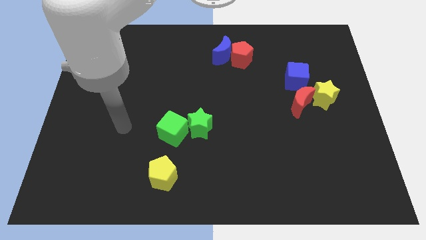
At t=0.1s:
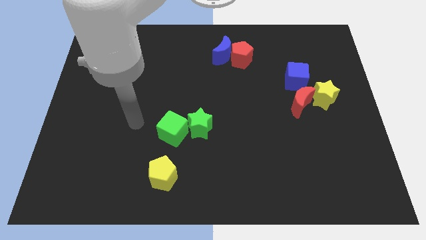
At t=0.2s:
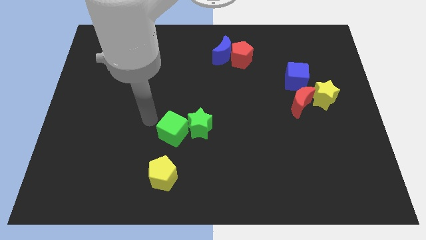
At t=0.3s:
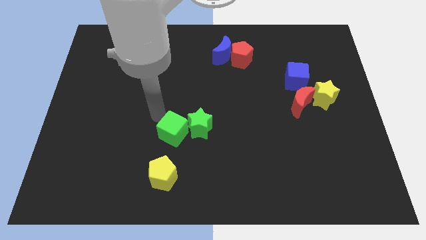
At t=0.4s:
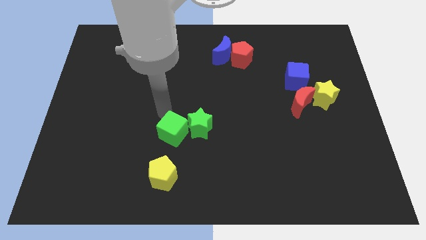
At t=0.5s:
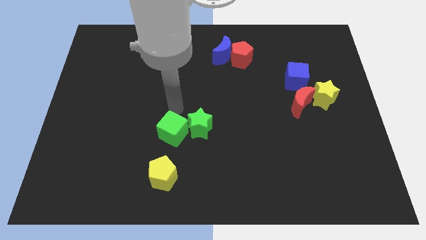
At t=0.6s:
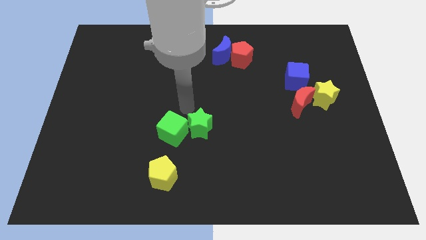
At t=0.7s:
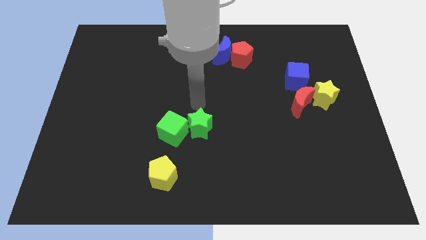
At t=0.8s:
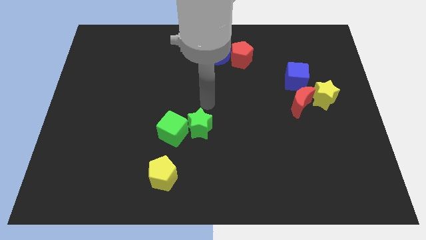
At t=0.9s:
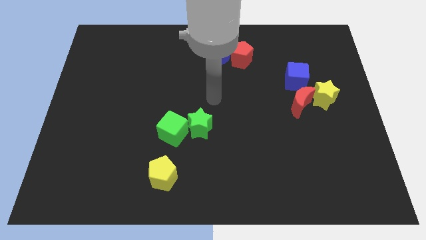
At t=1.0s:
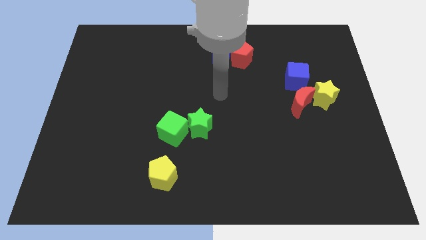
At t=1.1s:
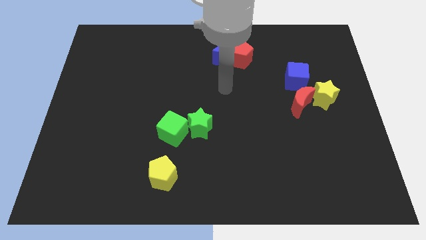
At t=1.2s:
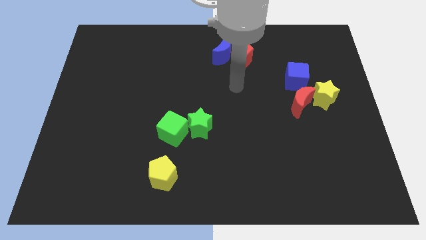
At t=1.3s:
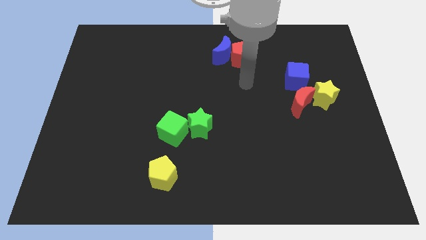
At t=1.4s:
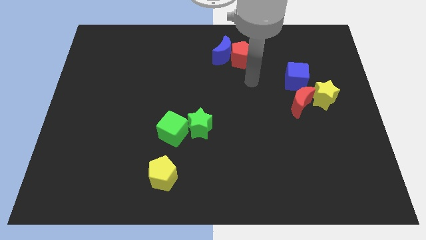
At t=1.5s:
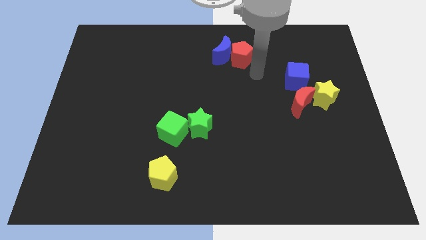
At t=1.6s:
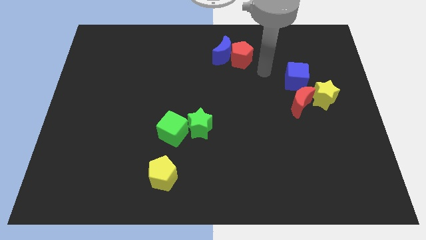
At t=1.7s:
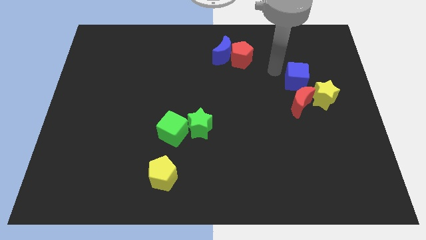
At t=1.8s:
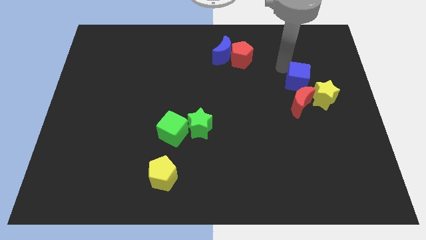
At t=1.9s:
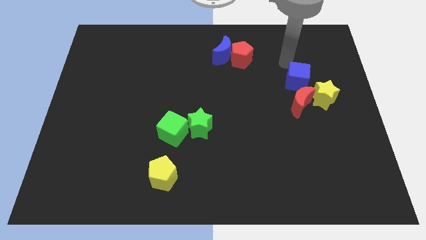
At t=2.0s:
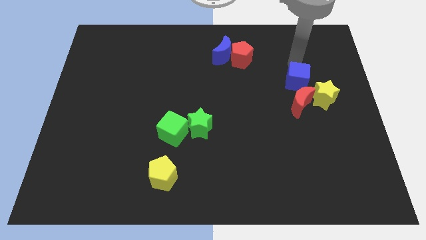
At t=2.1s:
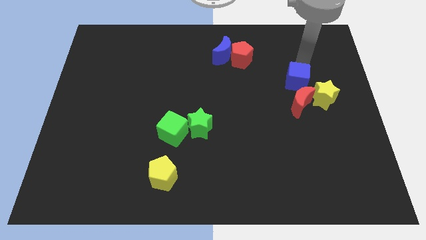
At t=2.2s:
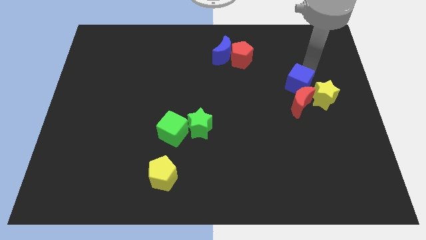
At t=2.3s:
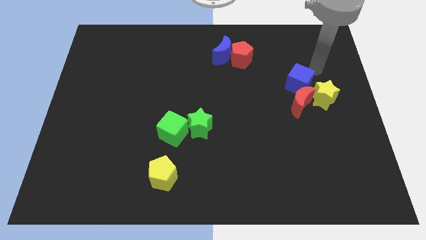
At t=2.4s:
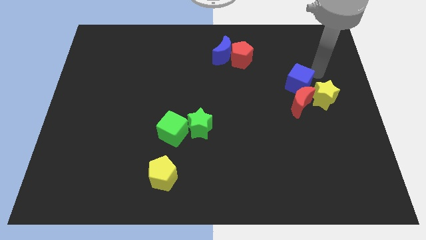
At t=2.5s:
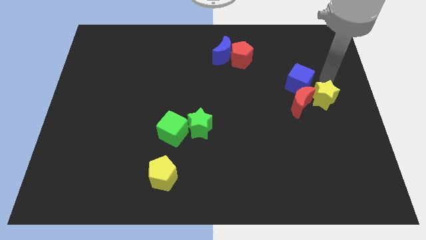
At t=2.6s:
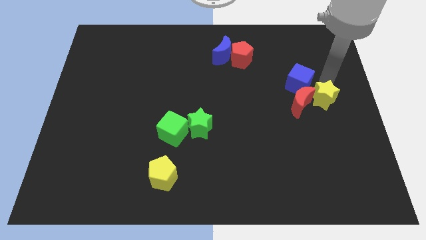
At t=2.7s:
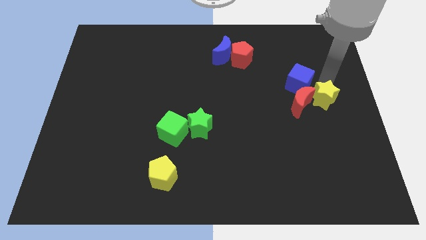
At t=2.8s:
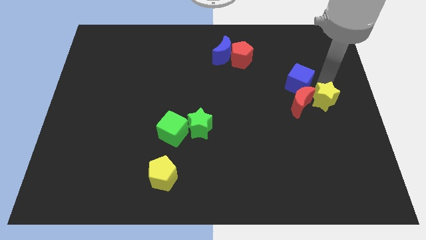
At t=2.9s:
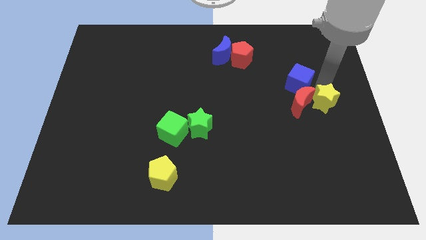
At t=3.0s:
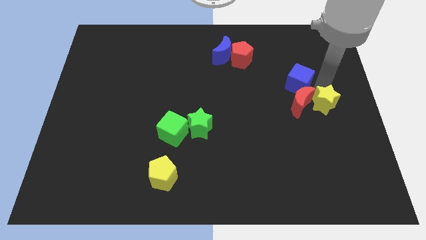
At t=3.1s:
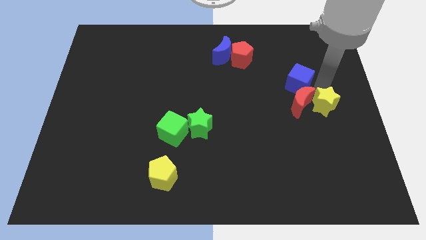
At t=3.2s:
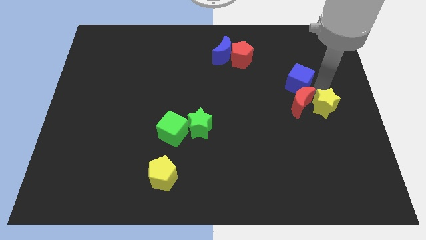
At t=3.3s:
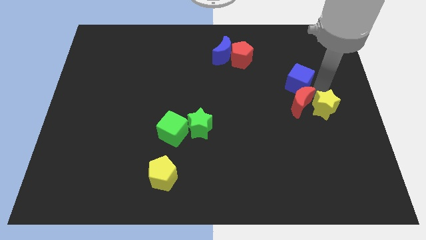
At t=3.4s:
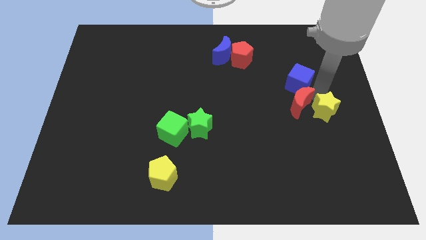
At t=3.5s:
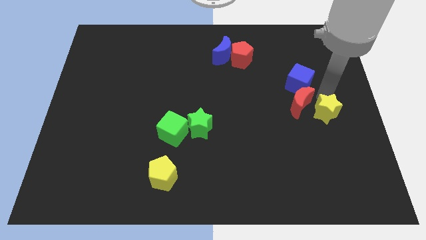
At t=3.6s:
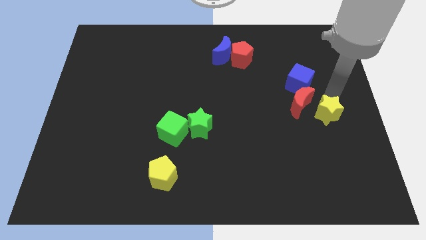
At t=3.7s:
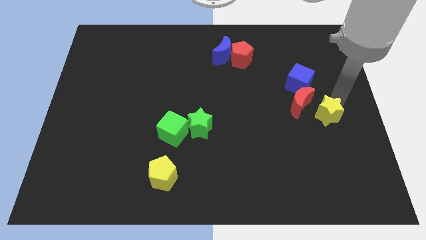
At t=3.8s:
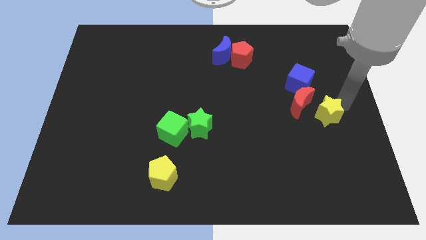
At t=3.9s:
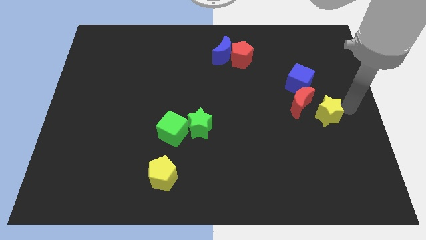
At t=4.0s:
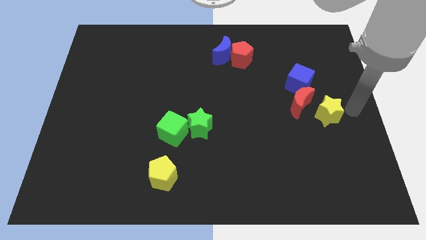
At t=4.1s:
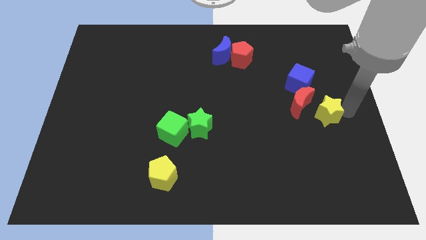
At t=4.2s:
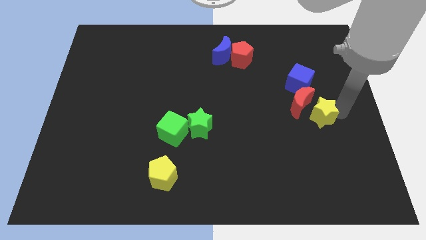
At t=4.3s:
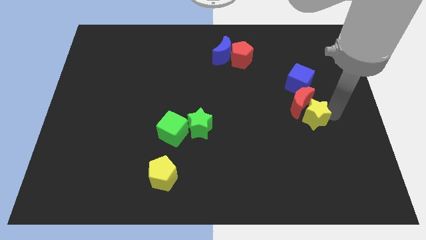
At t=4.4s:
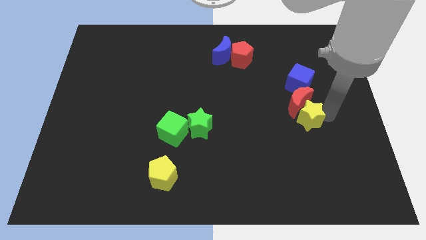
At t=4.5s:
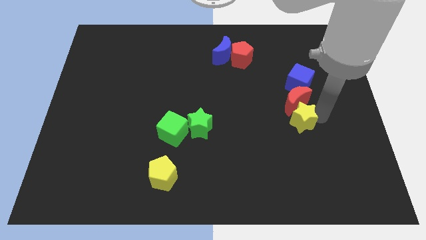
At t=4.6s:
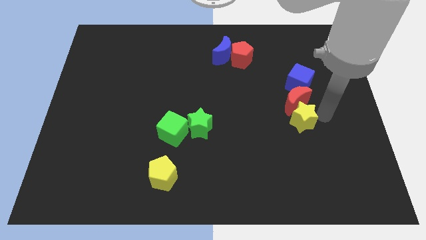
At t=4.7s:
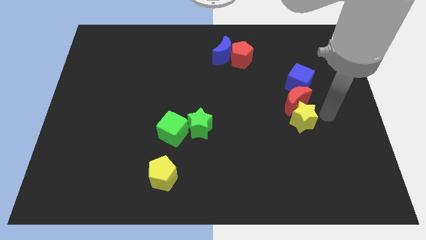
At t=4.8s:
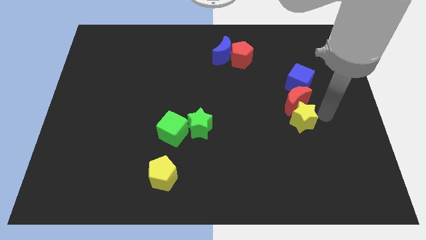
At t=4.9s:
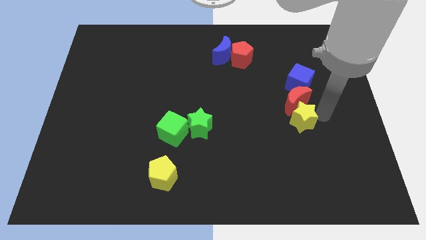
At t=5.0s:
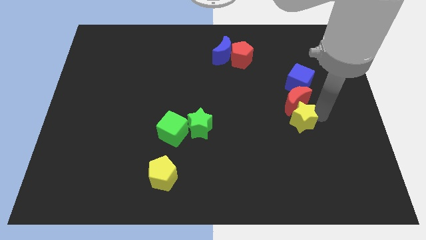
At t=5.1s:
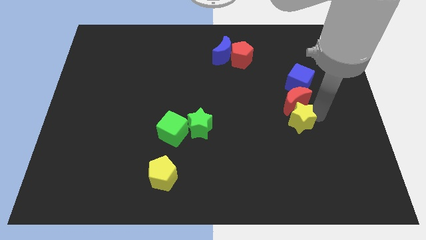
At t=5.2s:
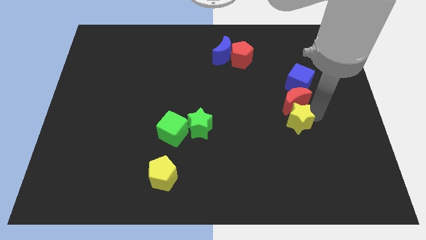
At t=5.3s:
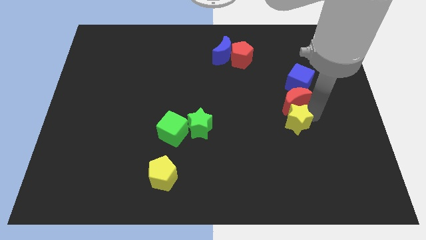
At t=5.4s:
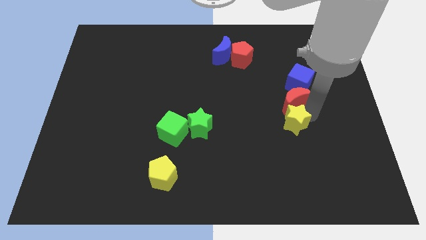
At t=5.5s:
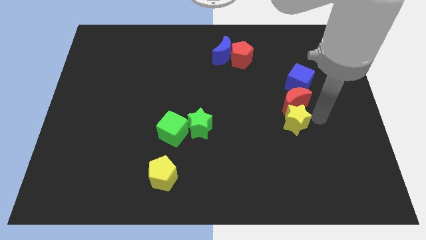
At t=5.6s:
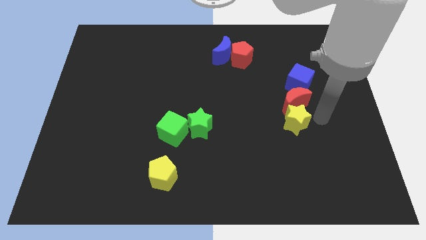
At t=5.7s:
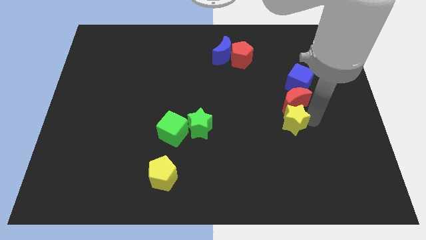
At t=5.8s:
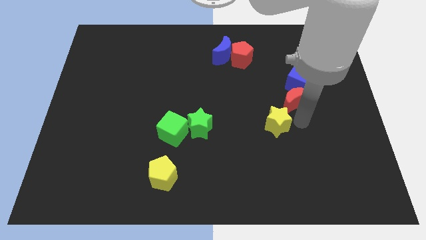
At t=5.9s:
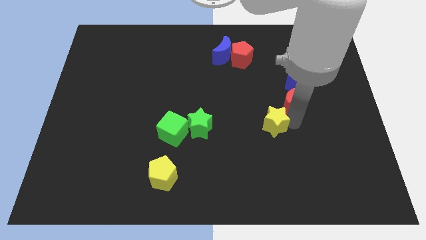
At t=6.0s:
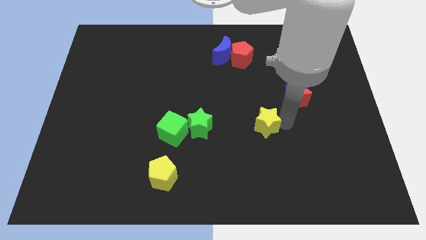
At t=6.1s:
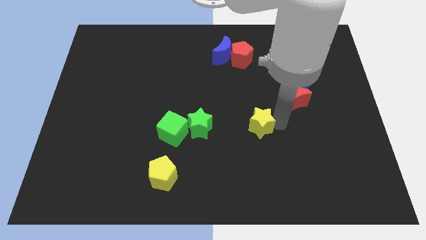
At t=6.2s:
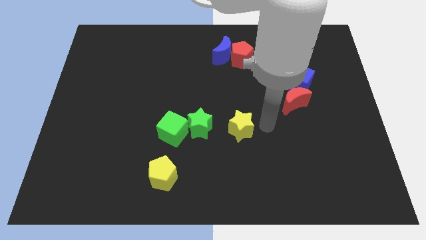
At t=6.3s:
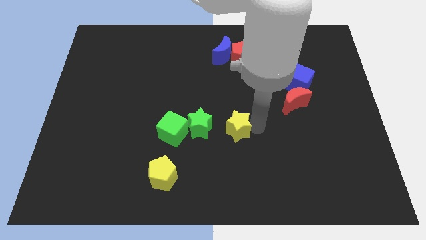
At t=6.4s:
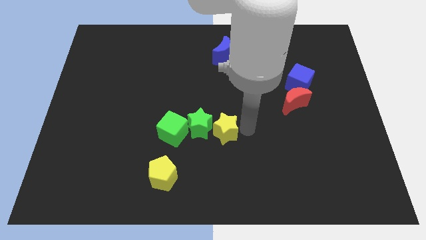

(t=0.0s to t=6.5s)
push the yellow star towards the green star

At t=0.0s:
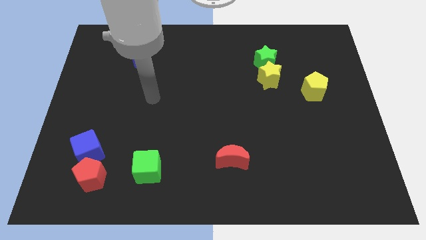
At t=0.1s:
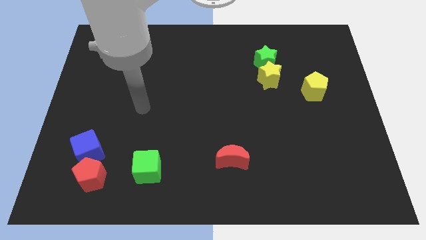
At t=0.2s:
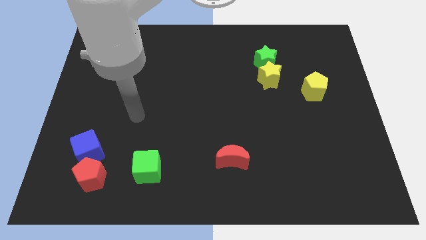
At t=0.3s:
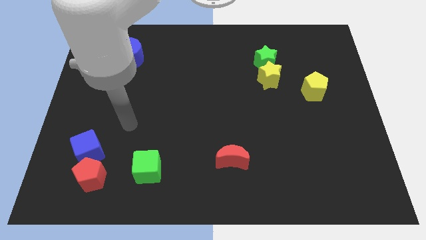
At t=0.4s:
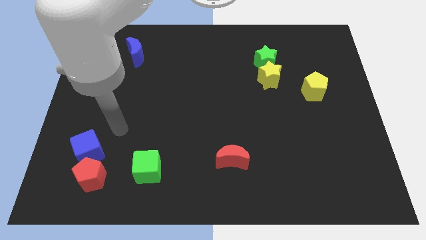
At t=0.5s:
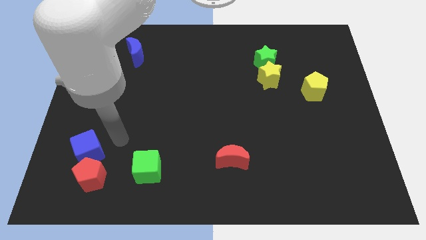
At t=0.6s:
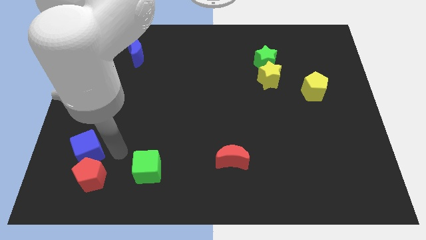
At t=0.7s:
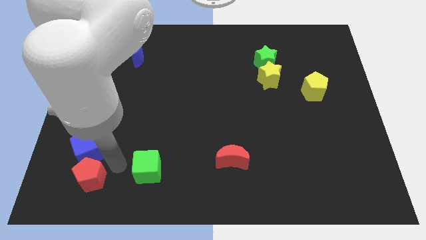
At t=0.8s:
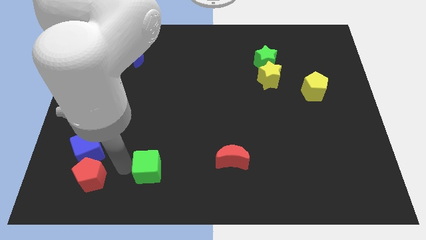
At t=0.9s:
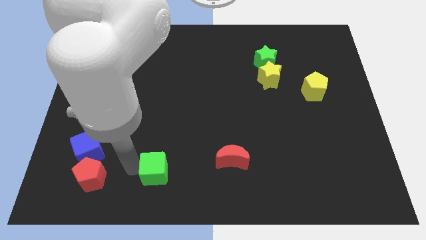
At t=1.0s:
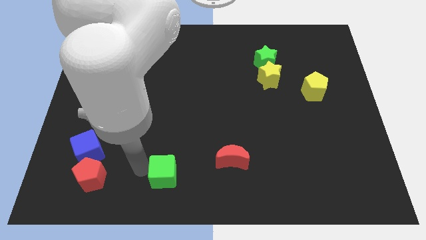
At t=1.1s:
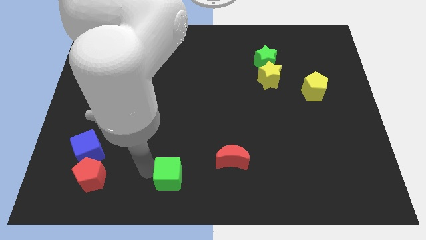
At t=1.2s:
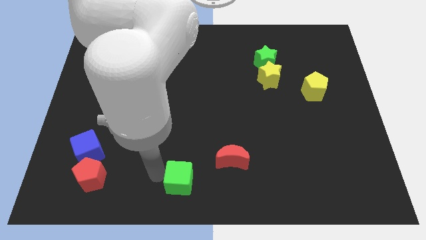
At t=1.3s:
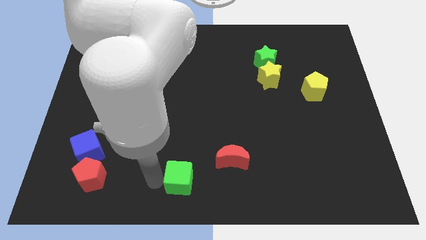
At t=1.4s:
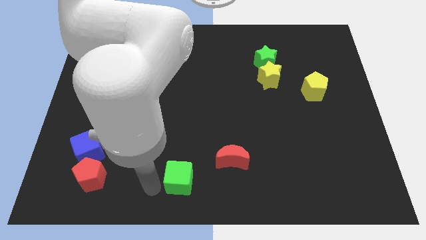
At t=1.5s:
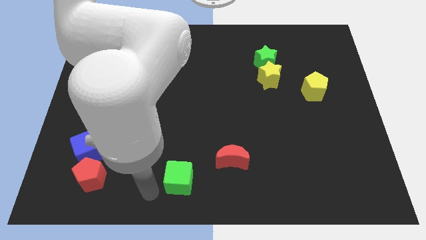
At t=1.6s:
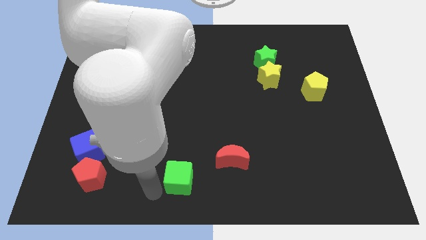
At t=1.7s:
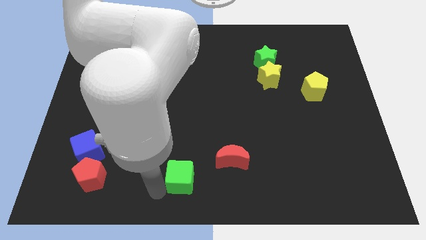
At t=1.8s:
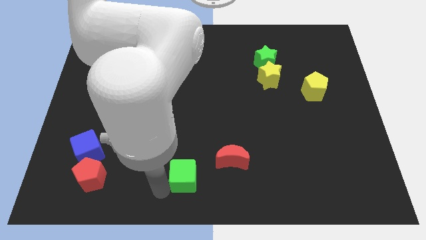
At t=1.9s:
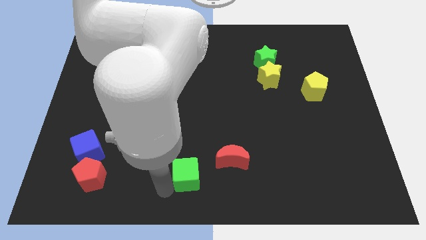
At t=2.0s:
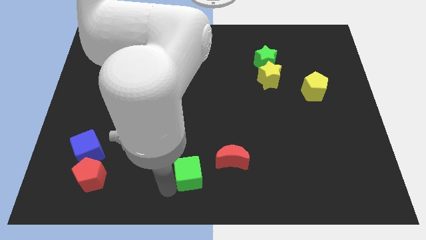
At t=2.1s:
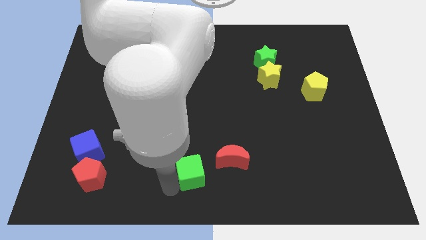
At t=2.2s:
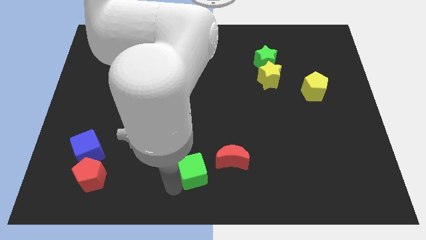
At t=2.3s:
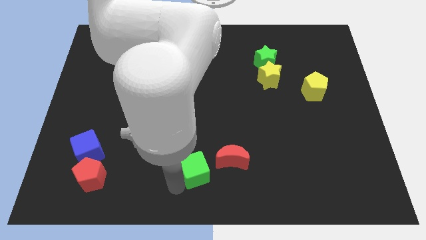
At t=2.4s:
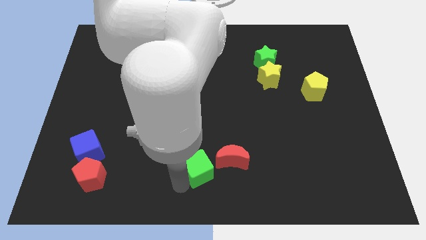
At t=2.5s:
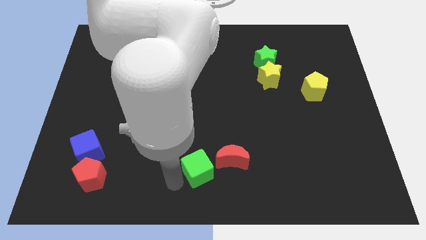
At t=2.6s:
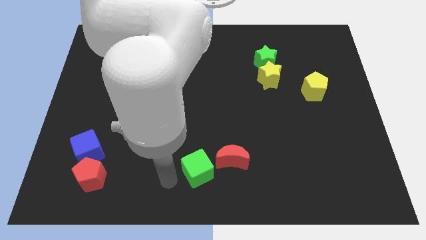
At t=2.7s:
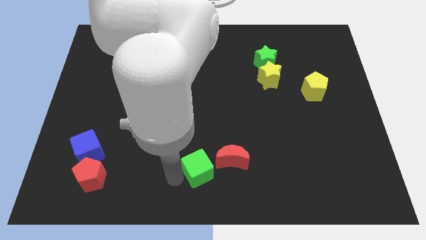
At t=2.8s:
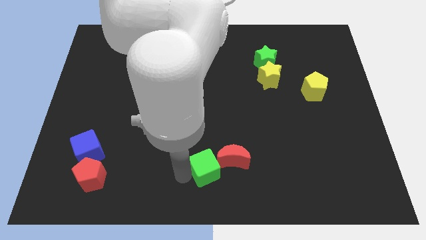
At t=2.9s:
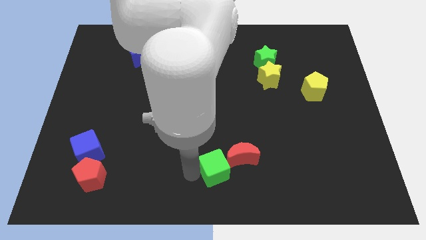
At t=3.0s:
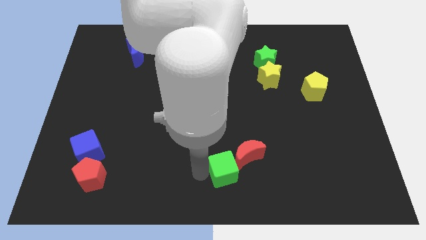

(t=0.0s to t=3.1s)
put the green cube close to the red moon
